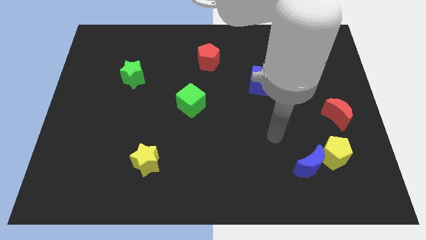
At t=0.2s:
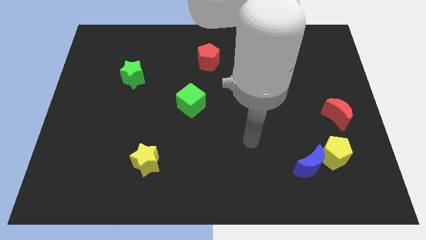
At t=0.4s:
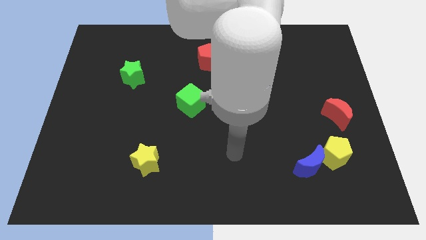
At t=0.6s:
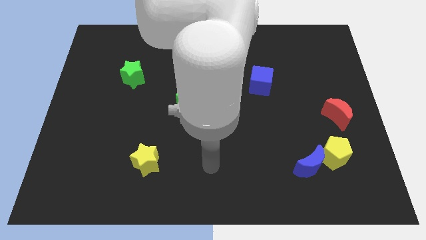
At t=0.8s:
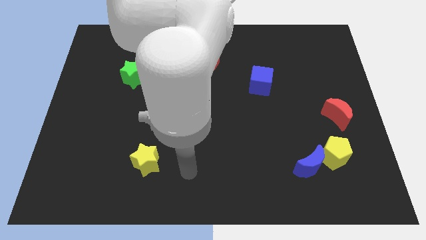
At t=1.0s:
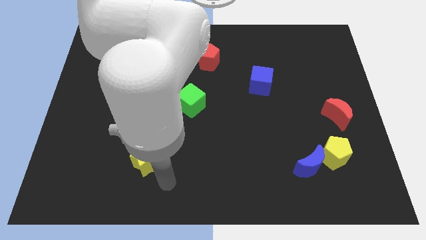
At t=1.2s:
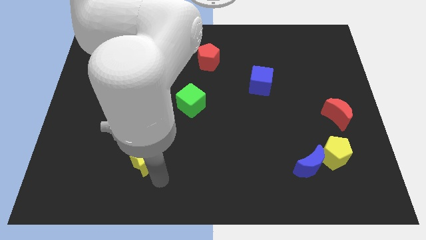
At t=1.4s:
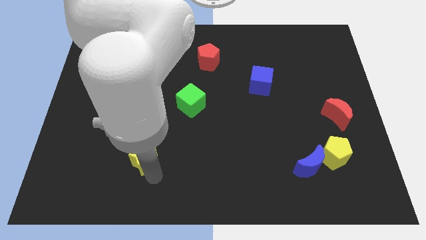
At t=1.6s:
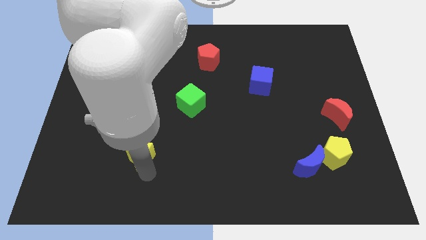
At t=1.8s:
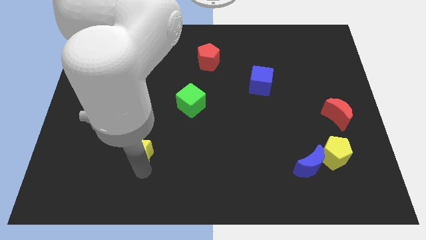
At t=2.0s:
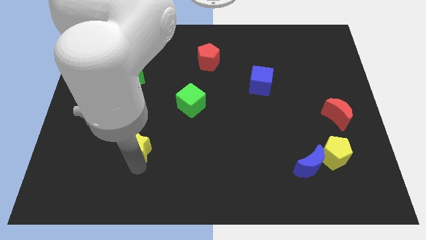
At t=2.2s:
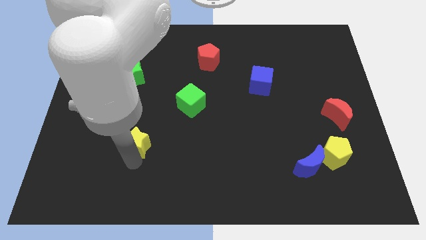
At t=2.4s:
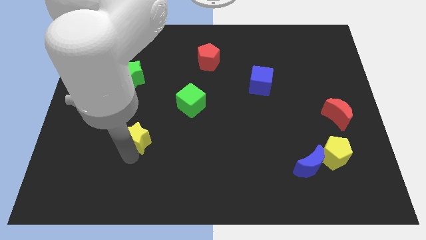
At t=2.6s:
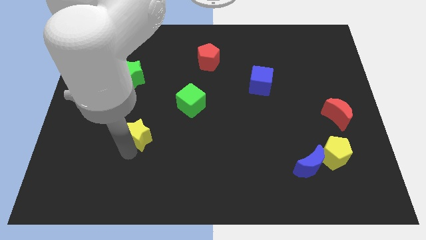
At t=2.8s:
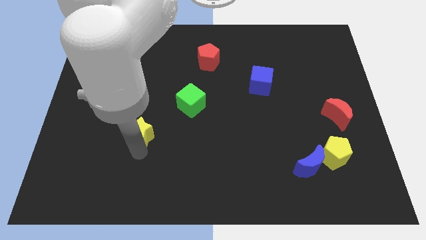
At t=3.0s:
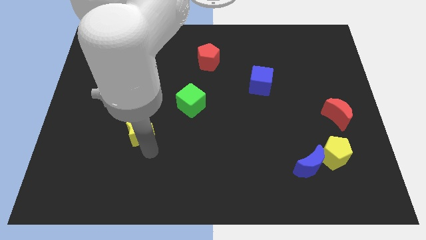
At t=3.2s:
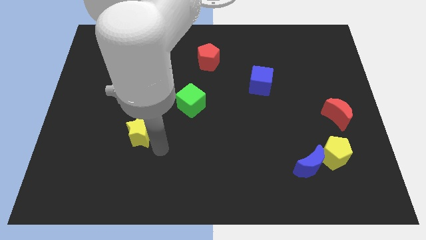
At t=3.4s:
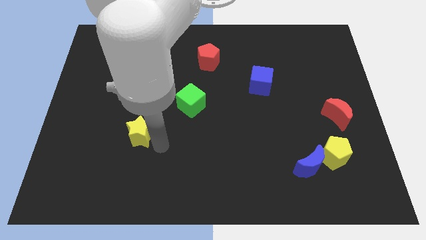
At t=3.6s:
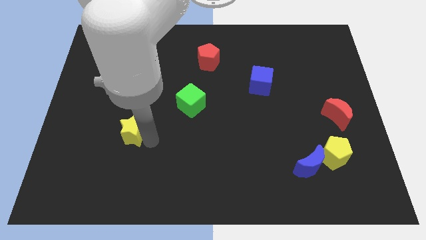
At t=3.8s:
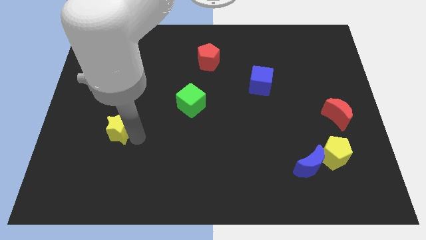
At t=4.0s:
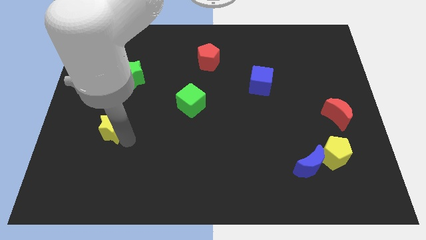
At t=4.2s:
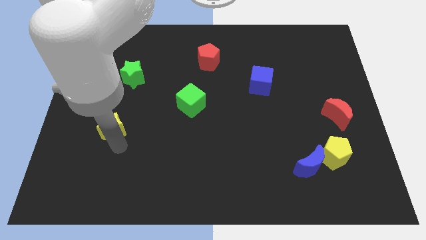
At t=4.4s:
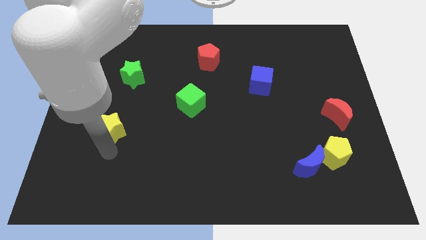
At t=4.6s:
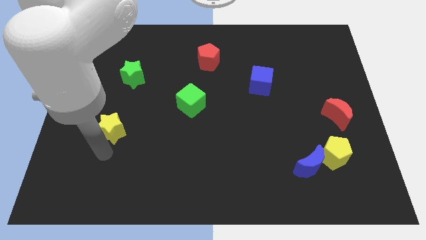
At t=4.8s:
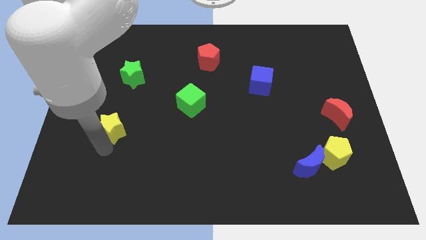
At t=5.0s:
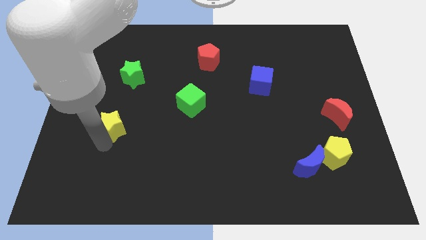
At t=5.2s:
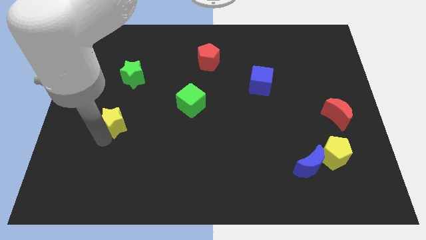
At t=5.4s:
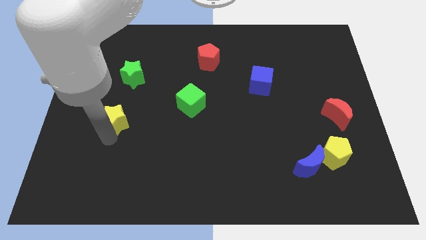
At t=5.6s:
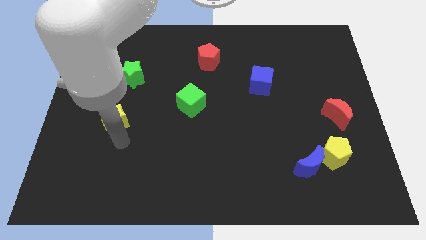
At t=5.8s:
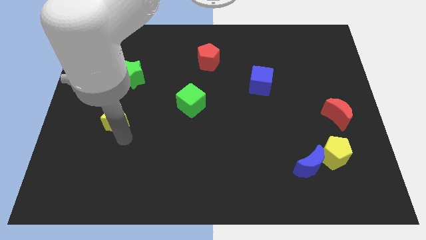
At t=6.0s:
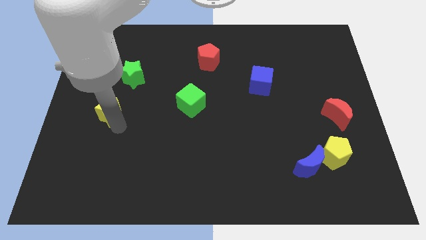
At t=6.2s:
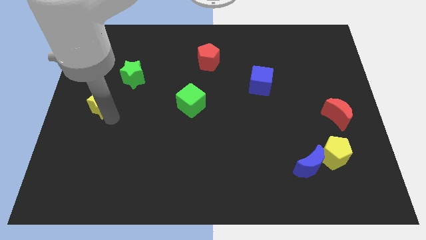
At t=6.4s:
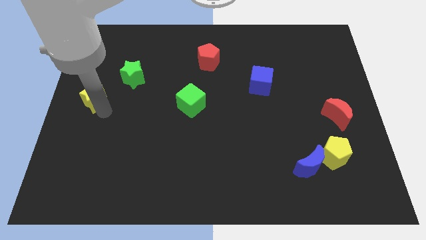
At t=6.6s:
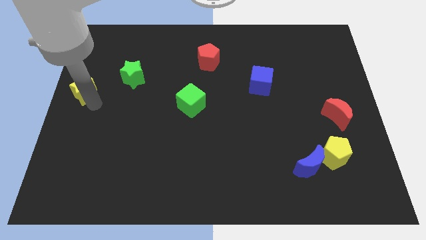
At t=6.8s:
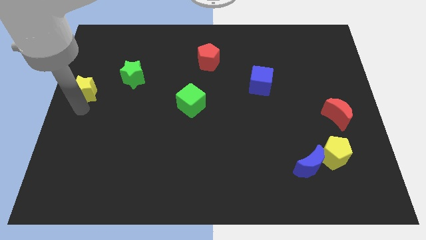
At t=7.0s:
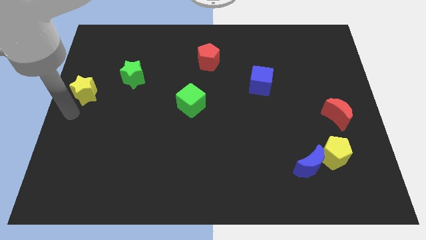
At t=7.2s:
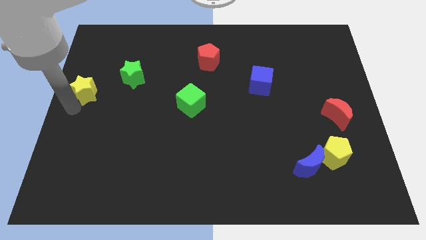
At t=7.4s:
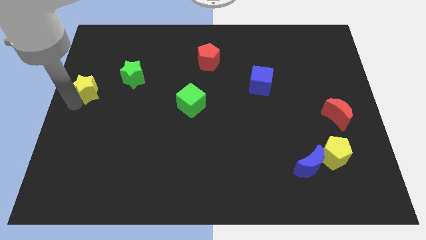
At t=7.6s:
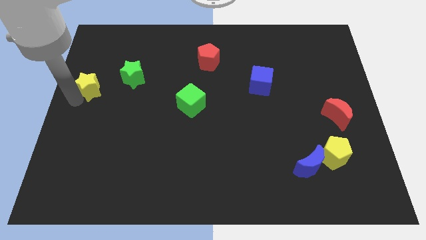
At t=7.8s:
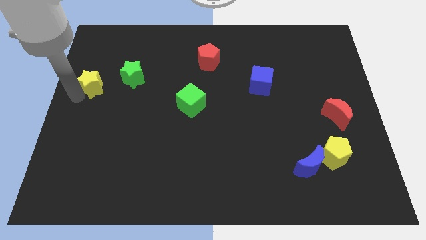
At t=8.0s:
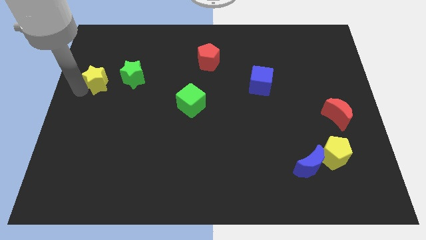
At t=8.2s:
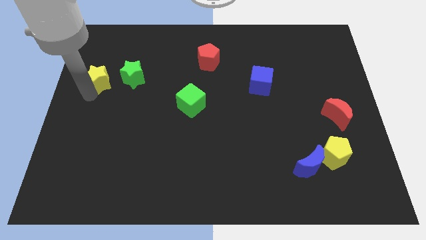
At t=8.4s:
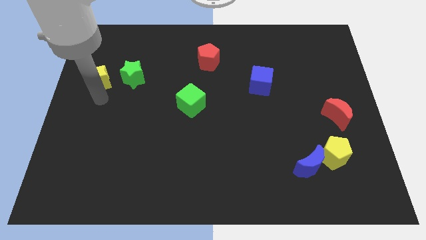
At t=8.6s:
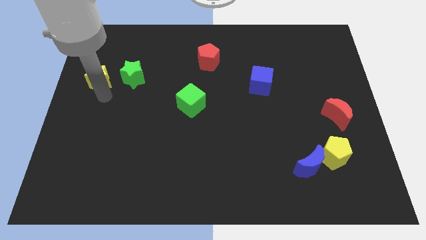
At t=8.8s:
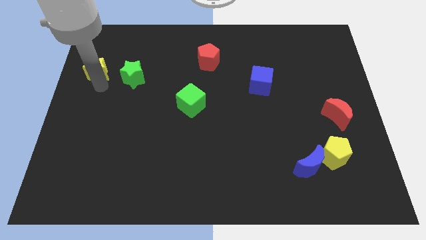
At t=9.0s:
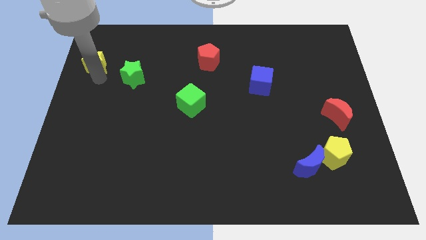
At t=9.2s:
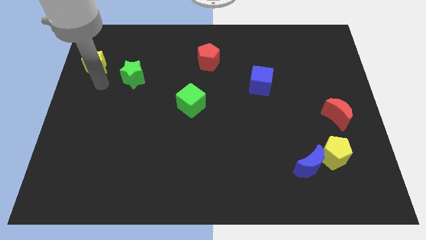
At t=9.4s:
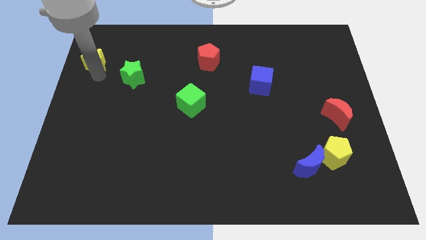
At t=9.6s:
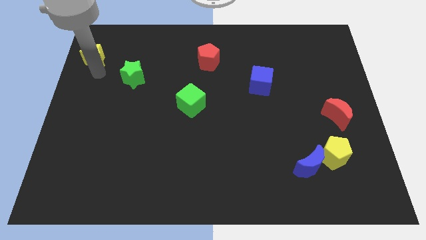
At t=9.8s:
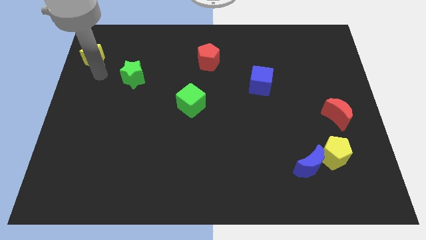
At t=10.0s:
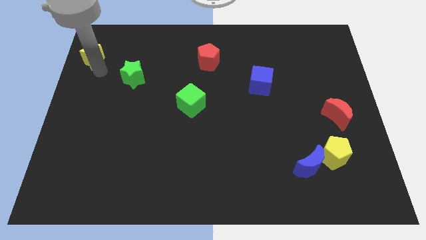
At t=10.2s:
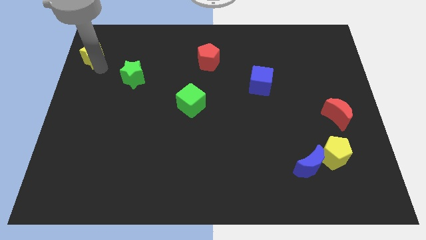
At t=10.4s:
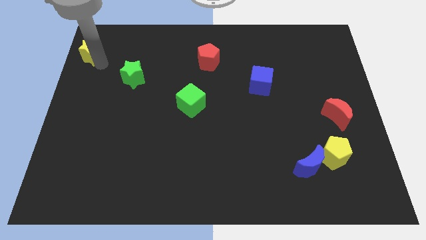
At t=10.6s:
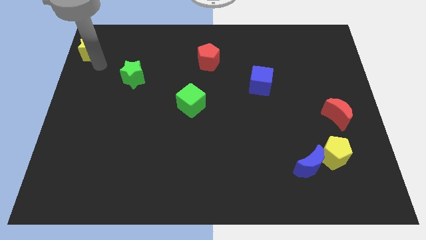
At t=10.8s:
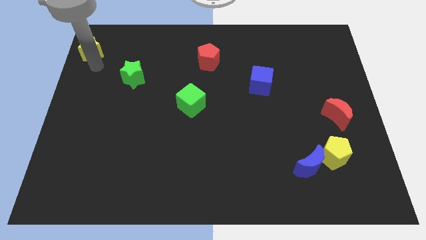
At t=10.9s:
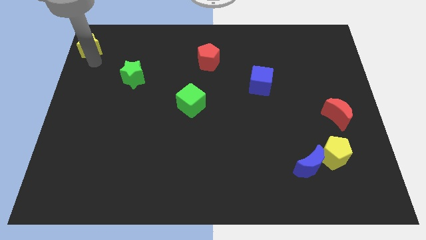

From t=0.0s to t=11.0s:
move the yellow star to the top left corner

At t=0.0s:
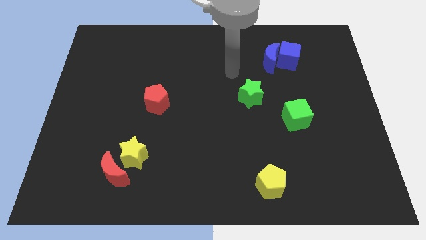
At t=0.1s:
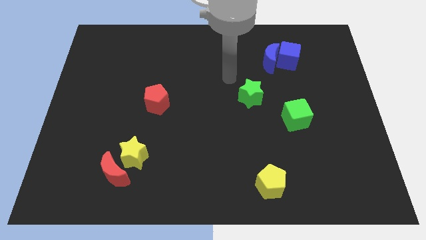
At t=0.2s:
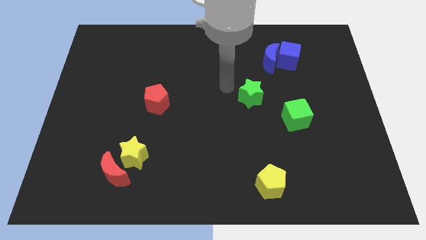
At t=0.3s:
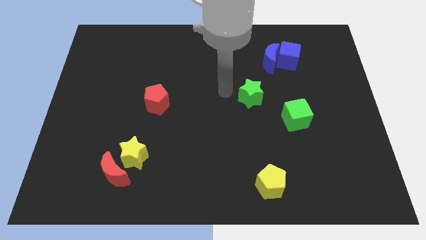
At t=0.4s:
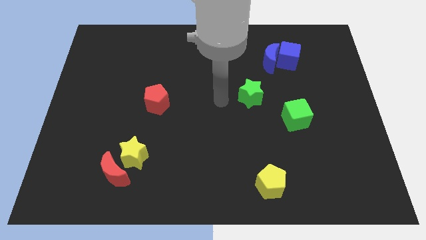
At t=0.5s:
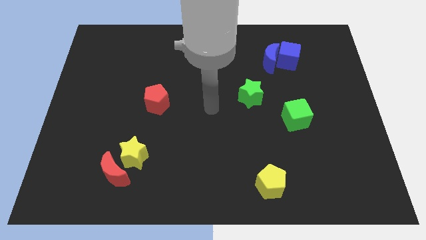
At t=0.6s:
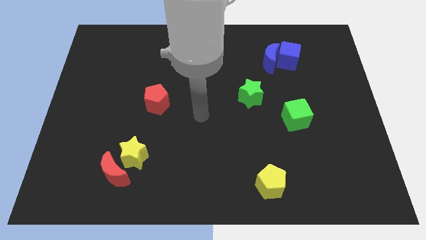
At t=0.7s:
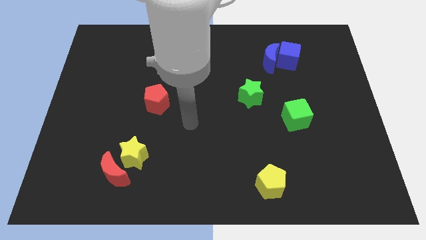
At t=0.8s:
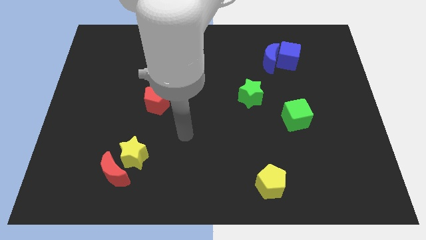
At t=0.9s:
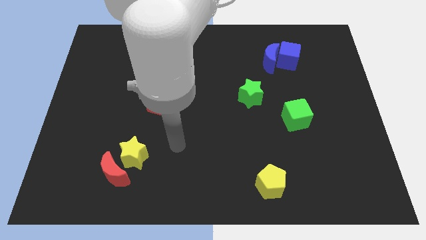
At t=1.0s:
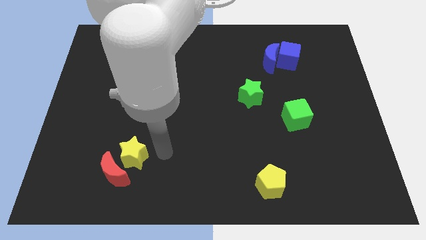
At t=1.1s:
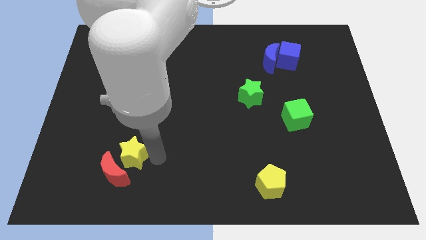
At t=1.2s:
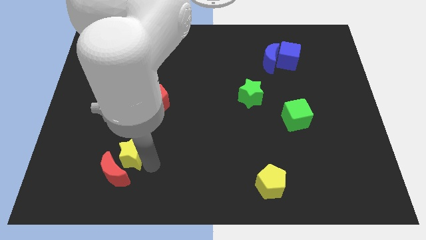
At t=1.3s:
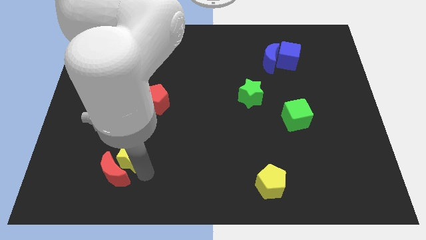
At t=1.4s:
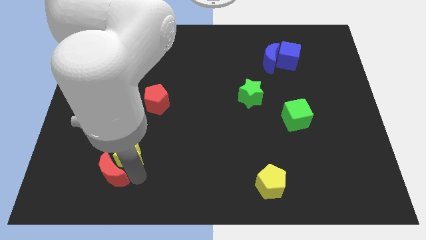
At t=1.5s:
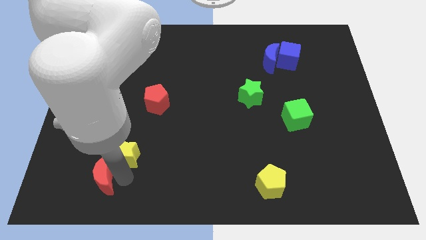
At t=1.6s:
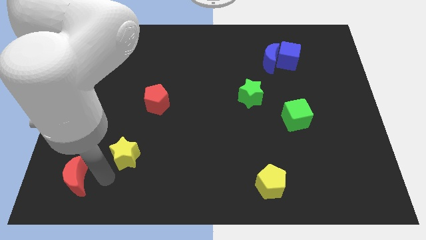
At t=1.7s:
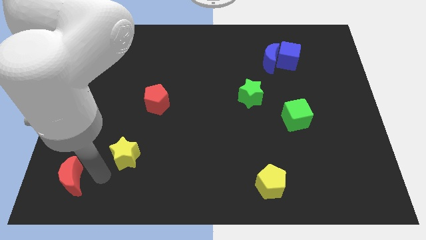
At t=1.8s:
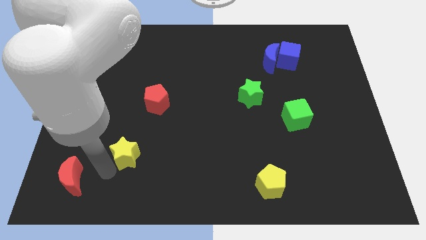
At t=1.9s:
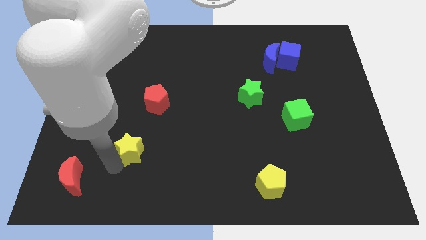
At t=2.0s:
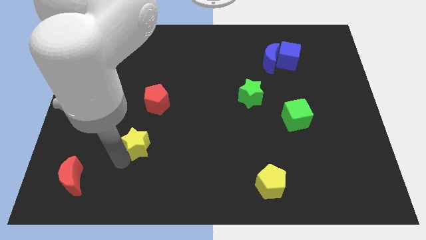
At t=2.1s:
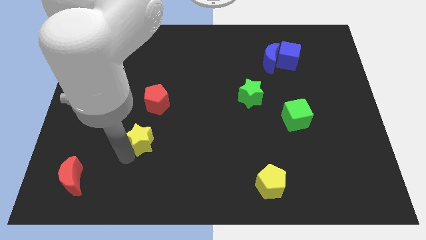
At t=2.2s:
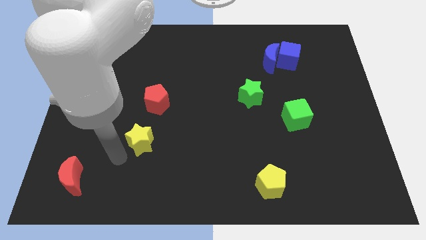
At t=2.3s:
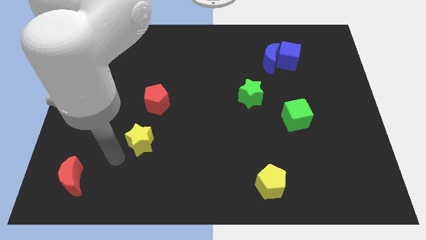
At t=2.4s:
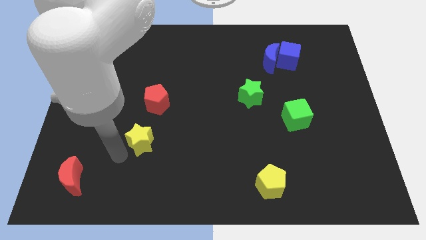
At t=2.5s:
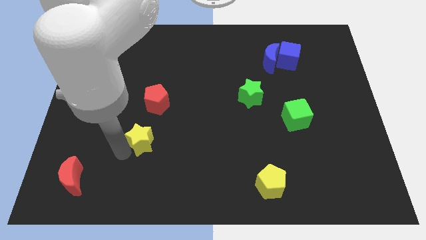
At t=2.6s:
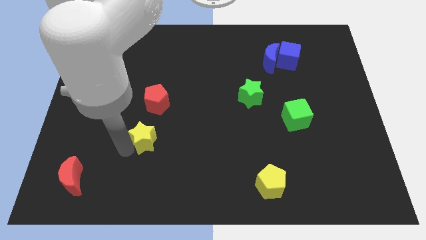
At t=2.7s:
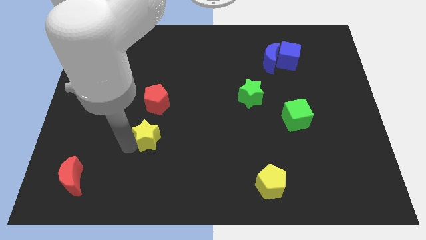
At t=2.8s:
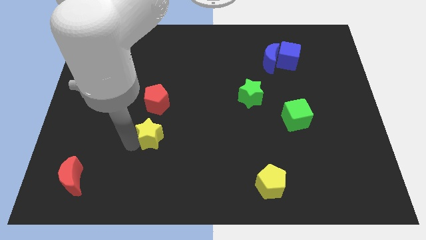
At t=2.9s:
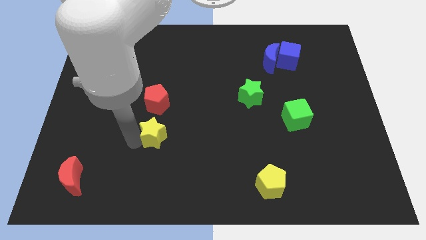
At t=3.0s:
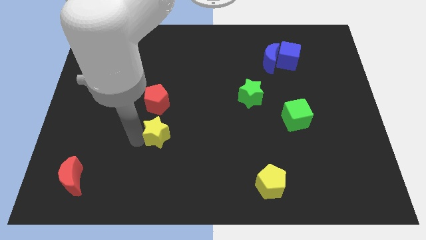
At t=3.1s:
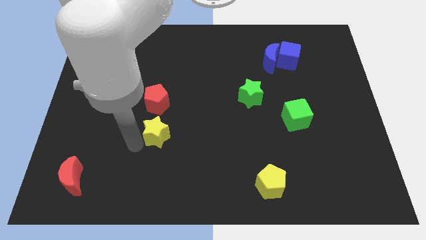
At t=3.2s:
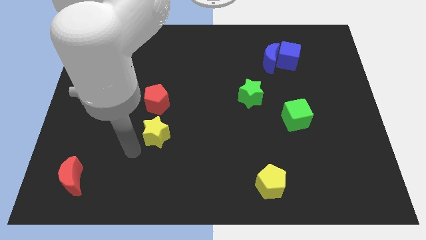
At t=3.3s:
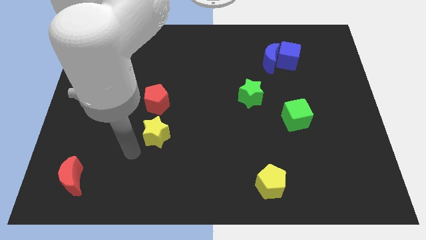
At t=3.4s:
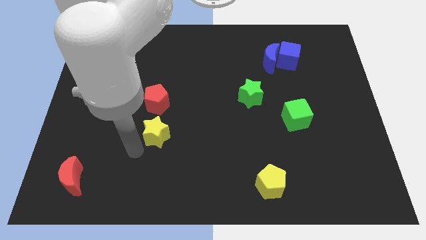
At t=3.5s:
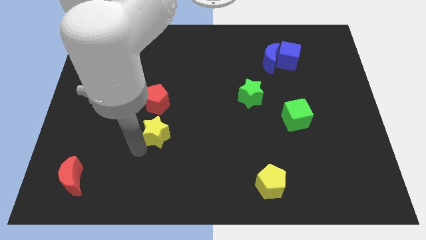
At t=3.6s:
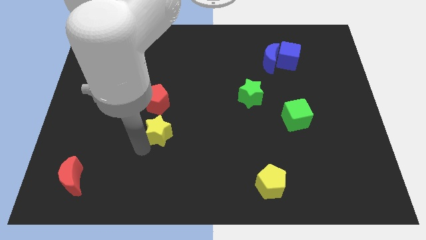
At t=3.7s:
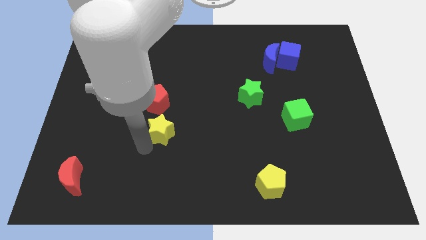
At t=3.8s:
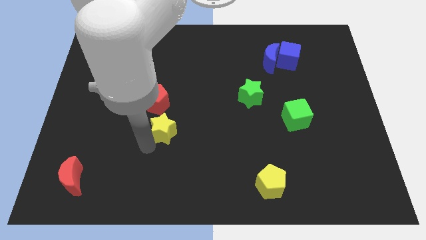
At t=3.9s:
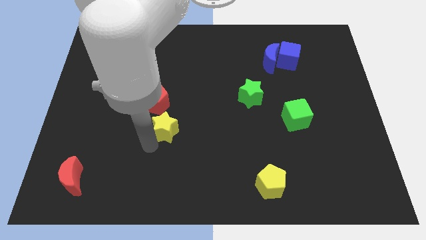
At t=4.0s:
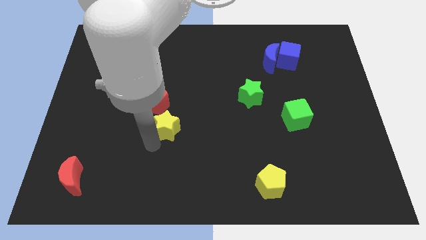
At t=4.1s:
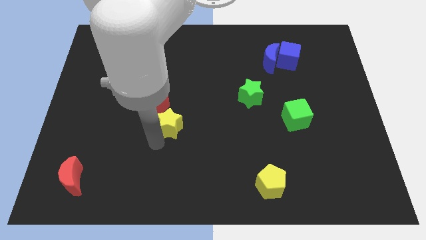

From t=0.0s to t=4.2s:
slide the yellow star to the middle of the board
